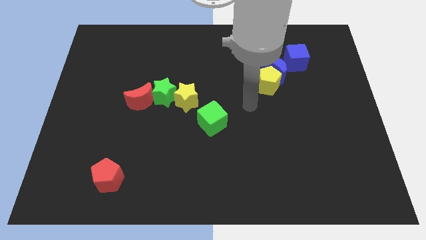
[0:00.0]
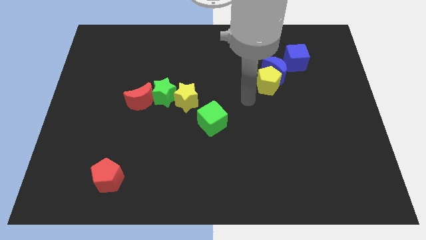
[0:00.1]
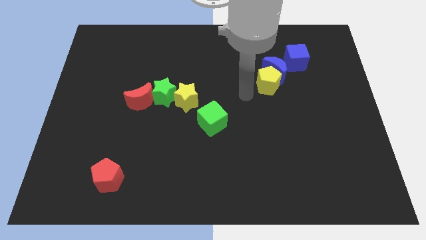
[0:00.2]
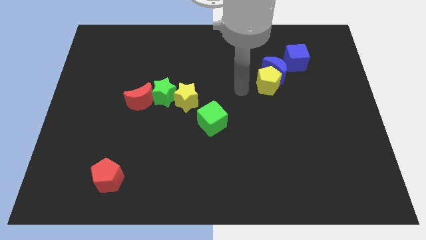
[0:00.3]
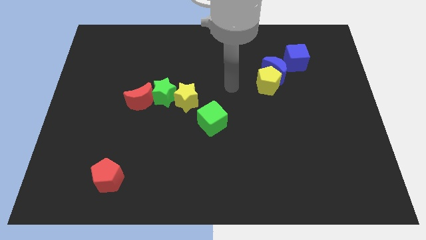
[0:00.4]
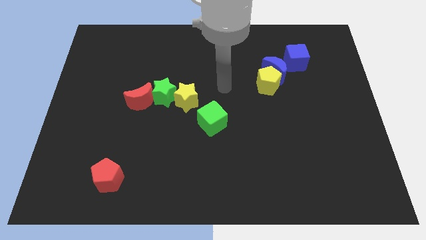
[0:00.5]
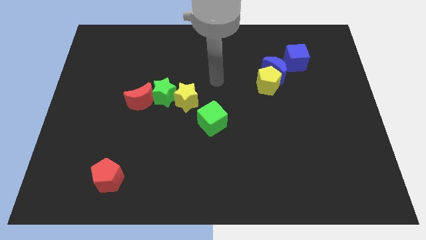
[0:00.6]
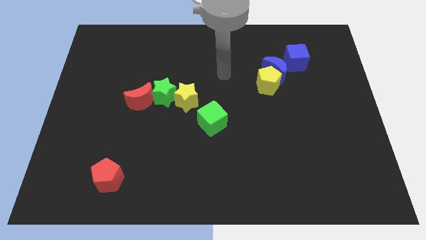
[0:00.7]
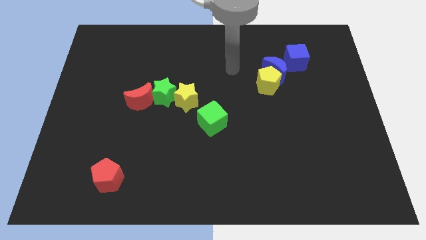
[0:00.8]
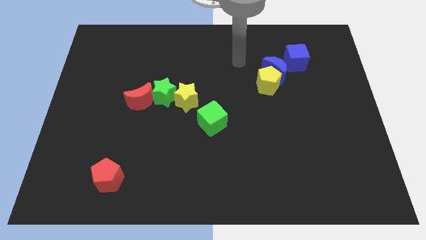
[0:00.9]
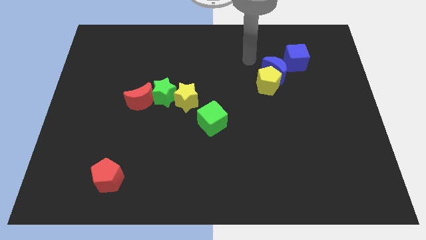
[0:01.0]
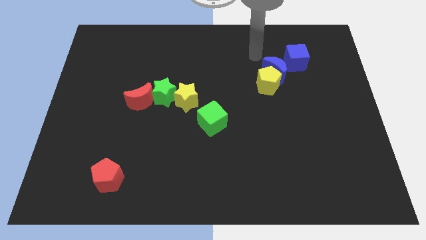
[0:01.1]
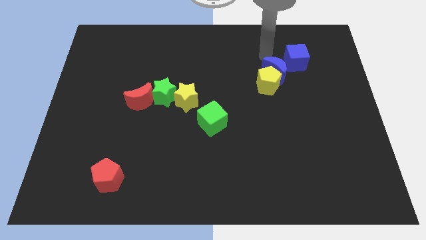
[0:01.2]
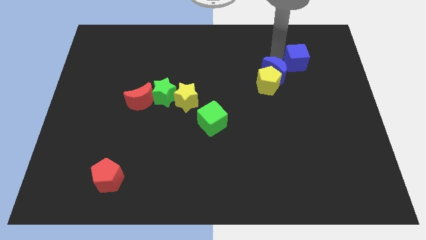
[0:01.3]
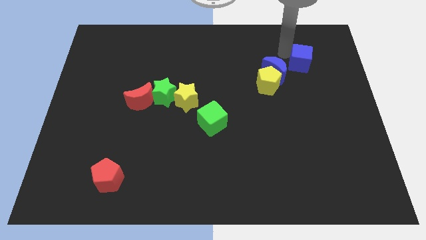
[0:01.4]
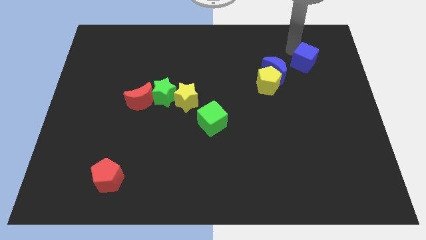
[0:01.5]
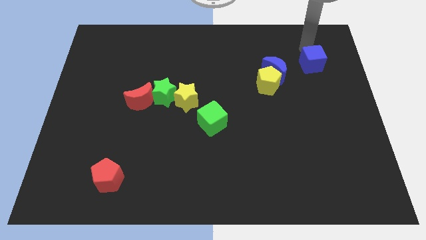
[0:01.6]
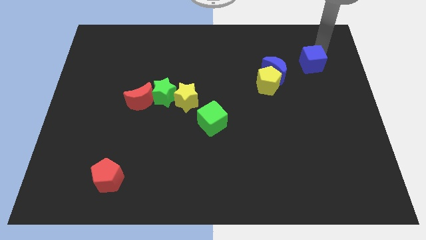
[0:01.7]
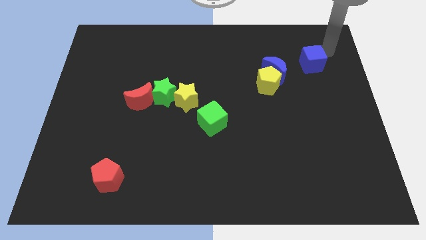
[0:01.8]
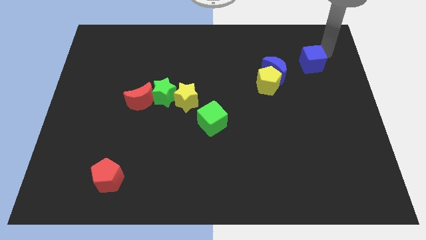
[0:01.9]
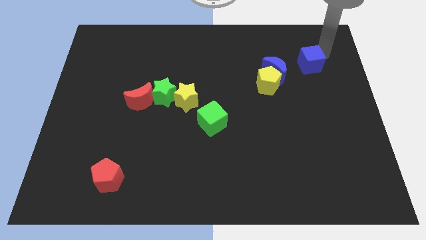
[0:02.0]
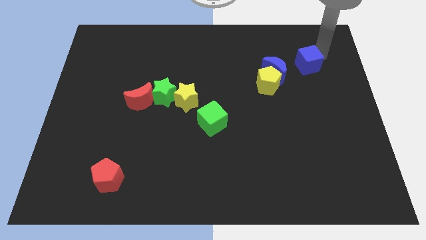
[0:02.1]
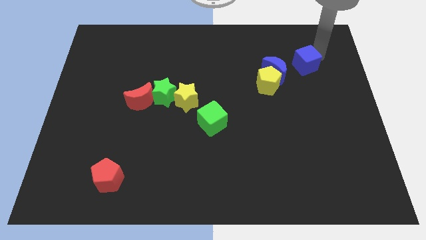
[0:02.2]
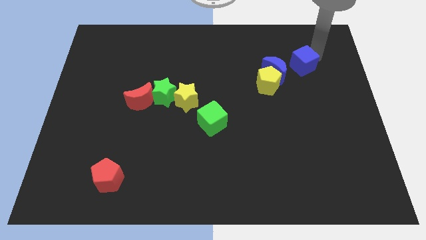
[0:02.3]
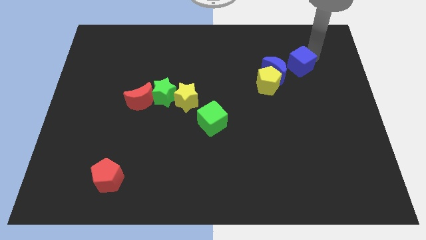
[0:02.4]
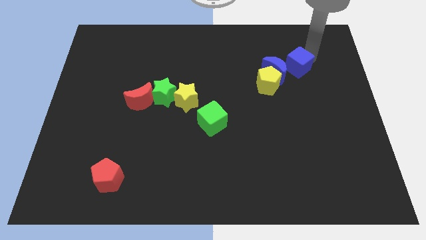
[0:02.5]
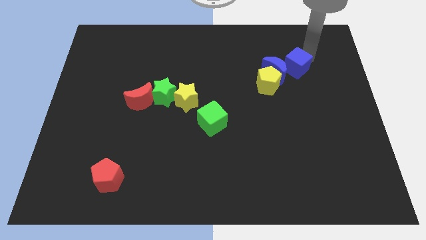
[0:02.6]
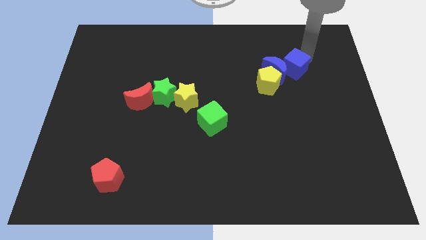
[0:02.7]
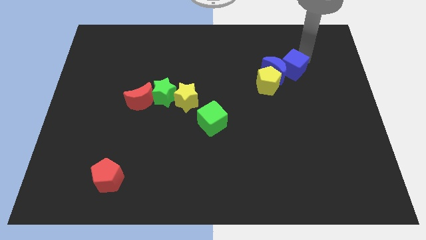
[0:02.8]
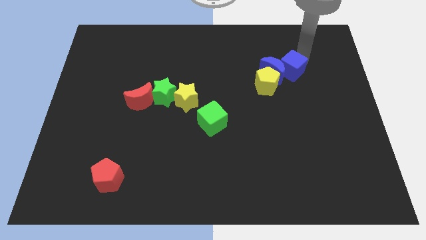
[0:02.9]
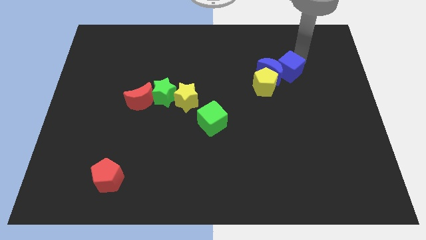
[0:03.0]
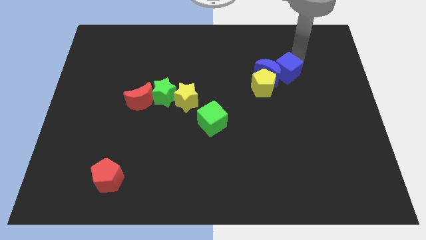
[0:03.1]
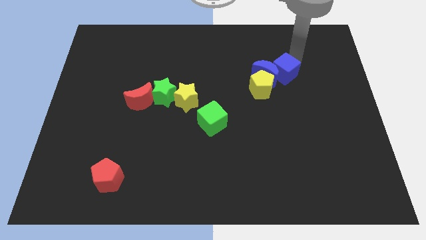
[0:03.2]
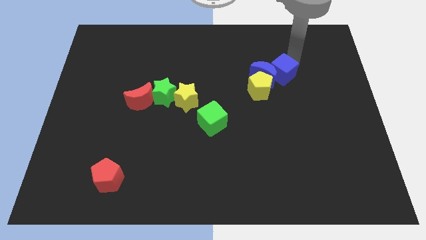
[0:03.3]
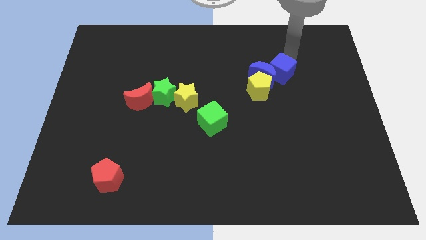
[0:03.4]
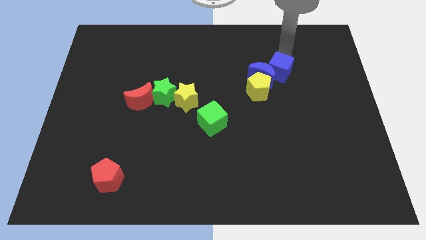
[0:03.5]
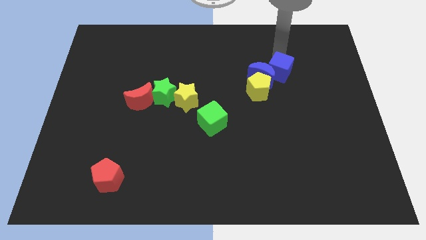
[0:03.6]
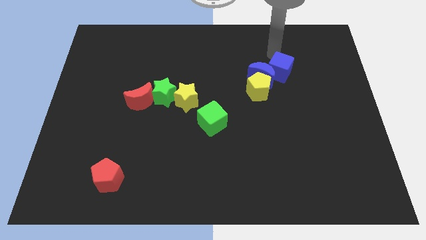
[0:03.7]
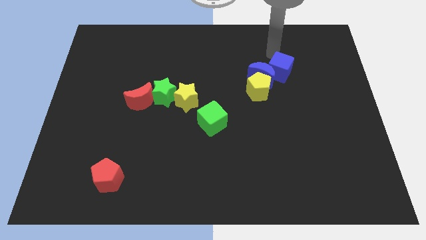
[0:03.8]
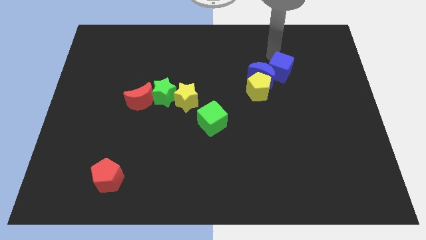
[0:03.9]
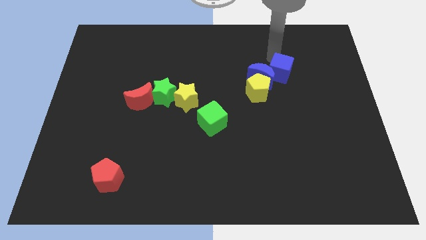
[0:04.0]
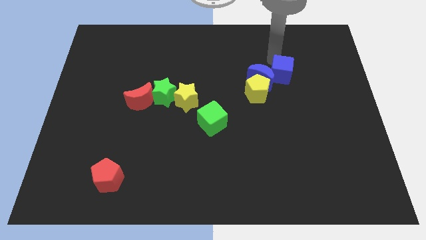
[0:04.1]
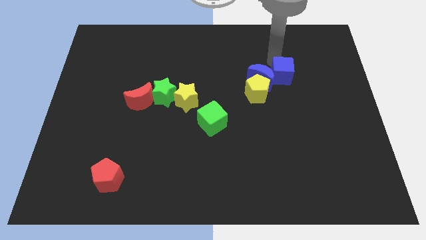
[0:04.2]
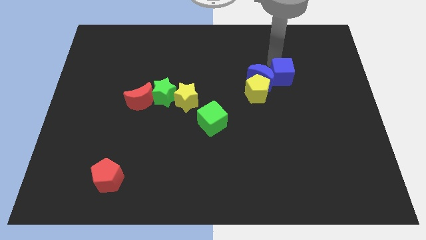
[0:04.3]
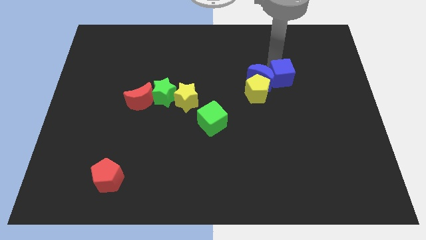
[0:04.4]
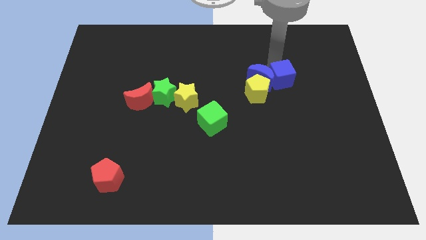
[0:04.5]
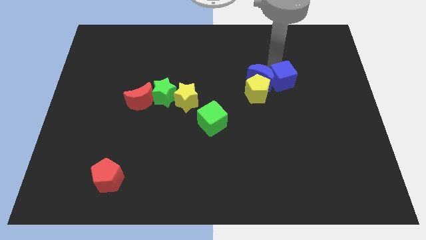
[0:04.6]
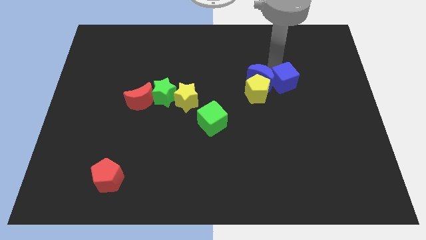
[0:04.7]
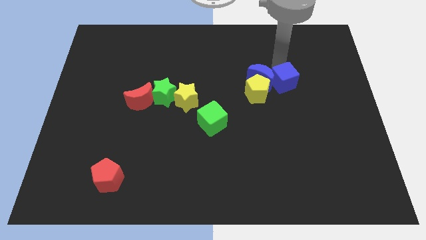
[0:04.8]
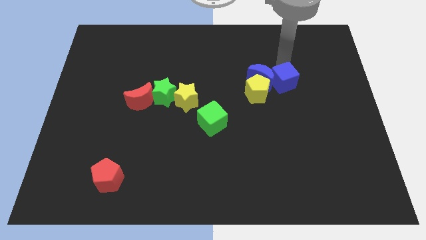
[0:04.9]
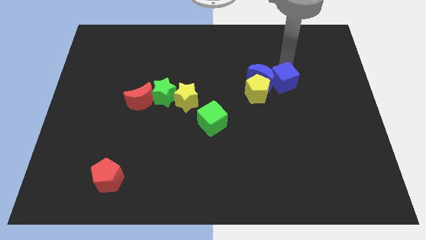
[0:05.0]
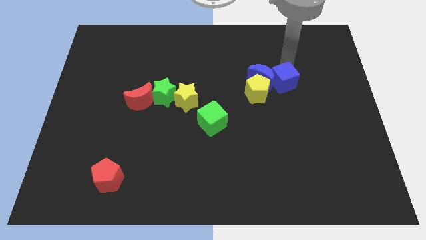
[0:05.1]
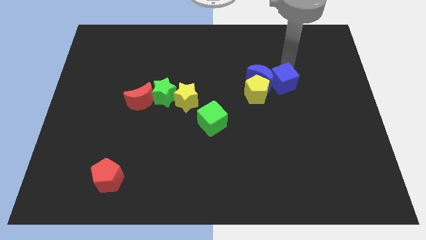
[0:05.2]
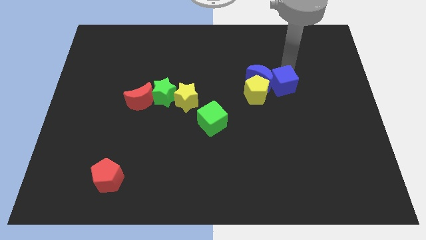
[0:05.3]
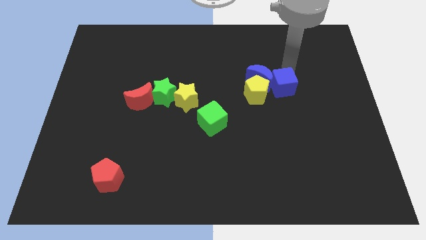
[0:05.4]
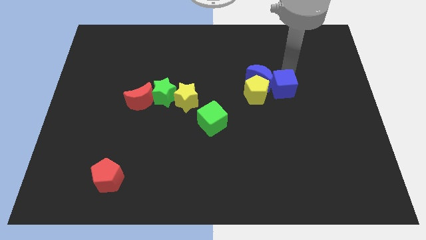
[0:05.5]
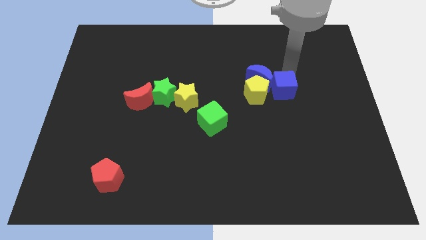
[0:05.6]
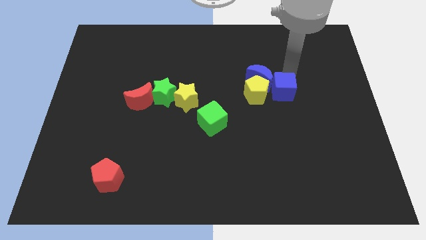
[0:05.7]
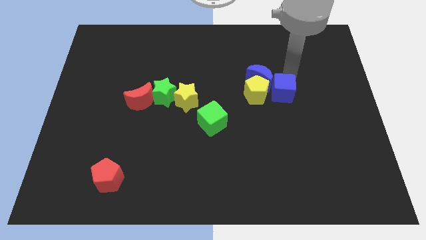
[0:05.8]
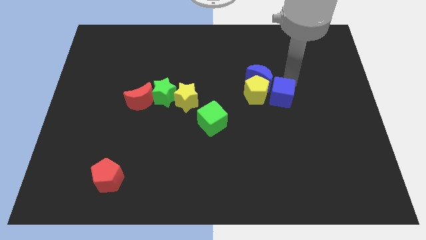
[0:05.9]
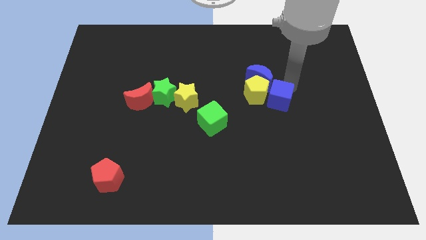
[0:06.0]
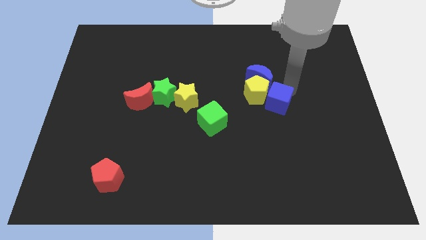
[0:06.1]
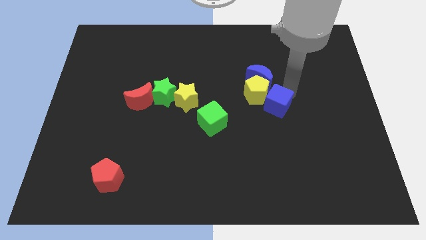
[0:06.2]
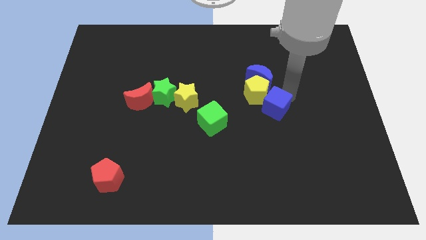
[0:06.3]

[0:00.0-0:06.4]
move the blue cube to the bottom of the yellow pentagon
